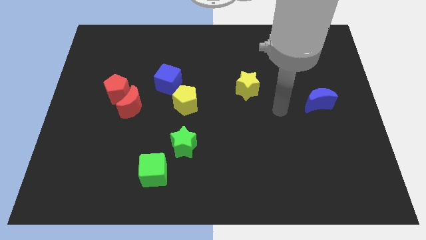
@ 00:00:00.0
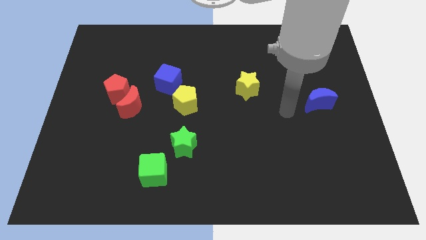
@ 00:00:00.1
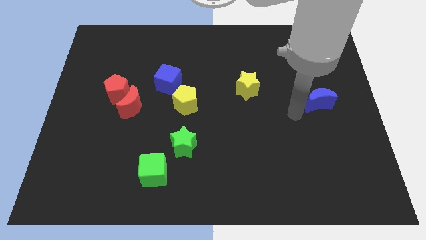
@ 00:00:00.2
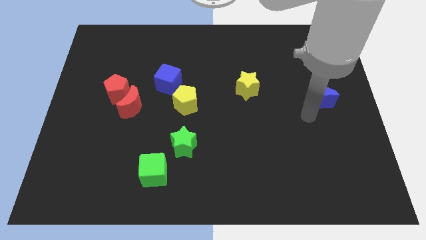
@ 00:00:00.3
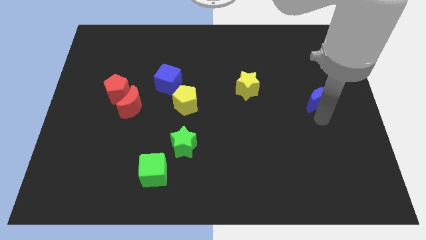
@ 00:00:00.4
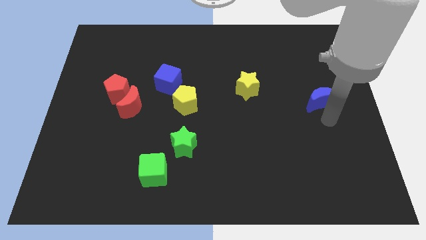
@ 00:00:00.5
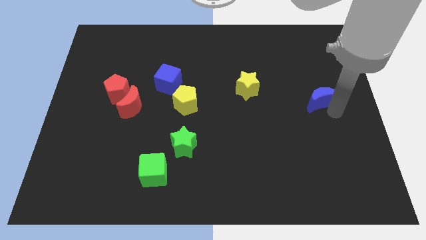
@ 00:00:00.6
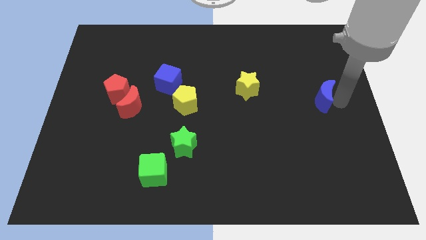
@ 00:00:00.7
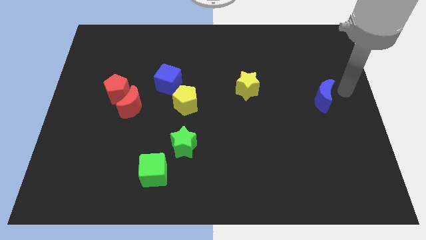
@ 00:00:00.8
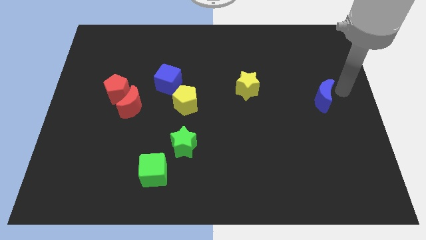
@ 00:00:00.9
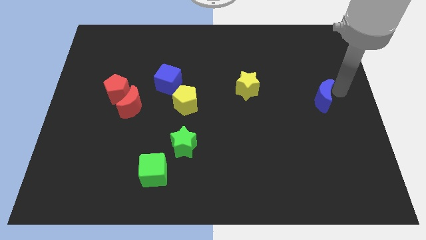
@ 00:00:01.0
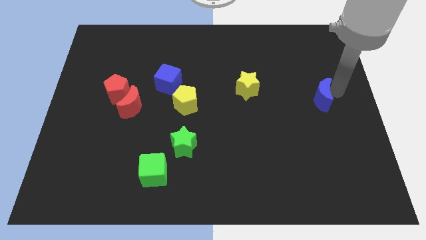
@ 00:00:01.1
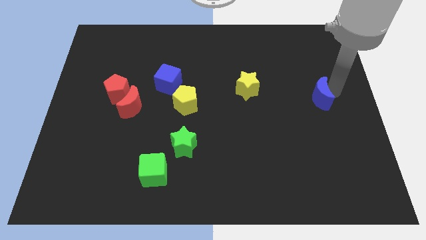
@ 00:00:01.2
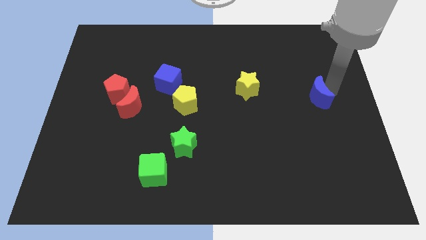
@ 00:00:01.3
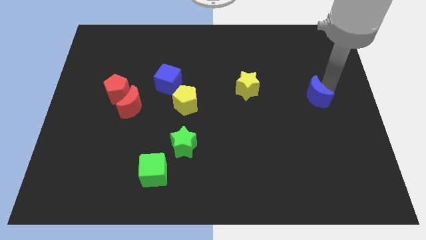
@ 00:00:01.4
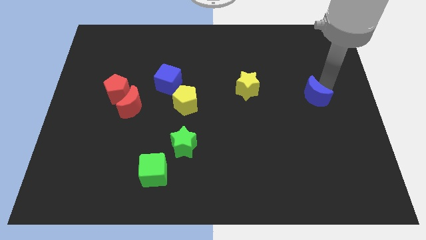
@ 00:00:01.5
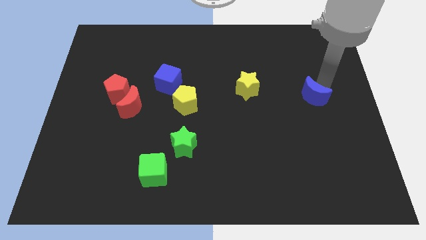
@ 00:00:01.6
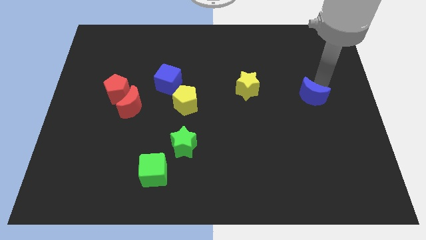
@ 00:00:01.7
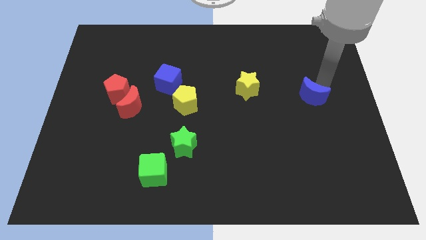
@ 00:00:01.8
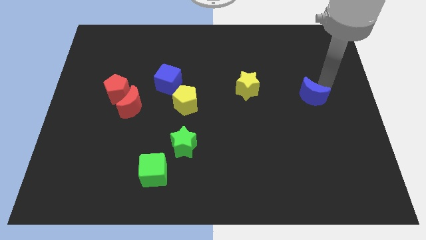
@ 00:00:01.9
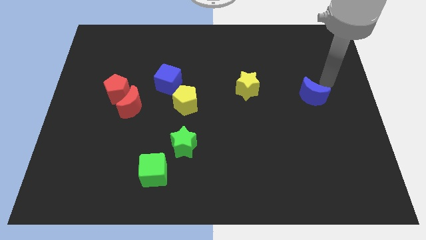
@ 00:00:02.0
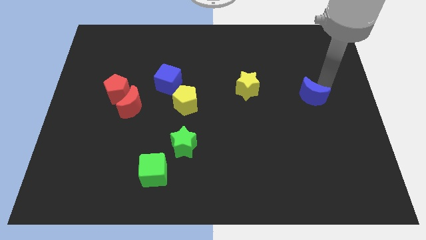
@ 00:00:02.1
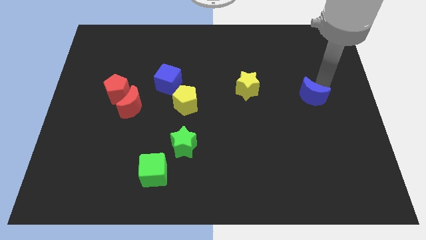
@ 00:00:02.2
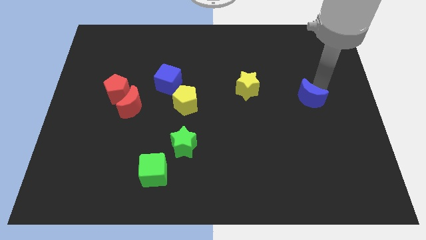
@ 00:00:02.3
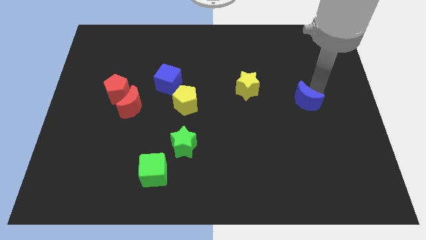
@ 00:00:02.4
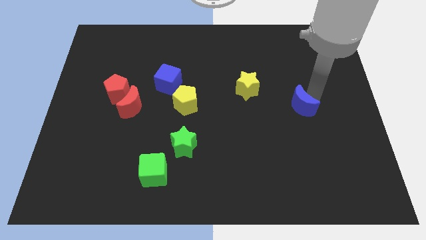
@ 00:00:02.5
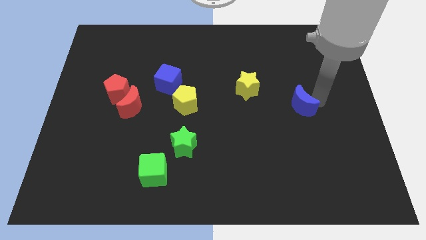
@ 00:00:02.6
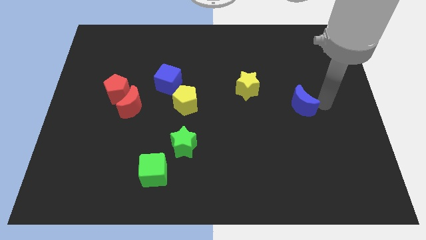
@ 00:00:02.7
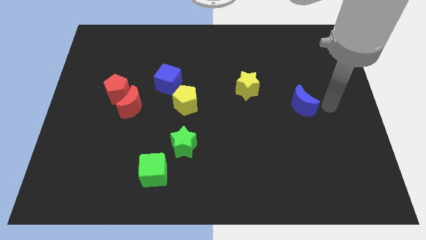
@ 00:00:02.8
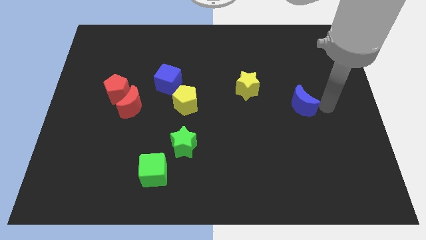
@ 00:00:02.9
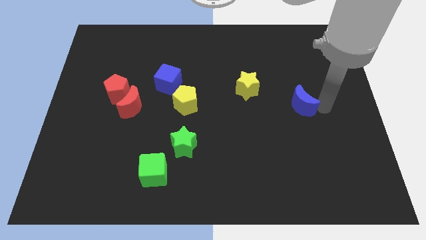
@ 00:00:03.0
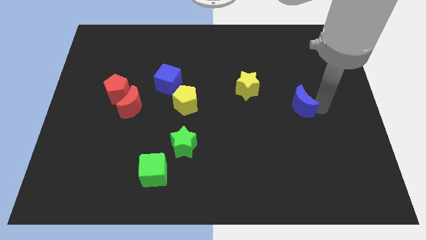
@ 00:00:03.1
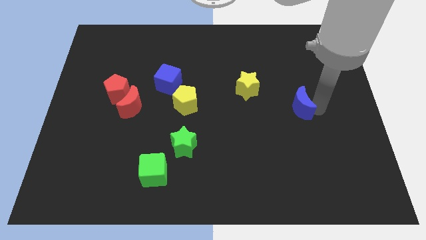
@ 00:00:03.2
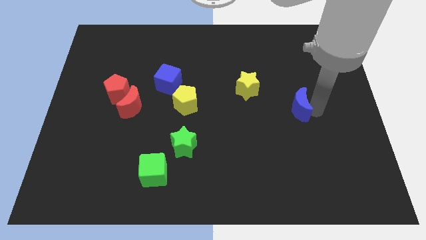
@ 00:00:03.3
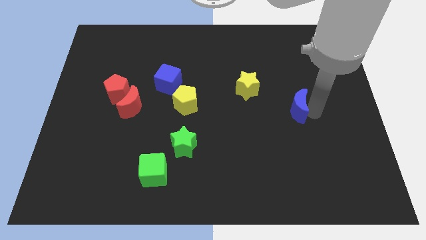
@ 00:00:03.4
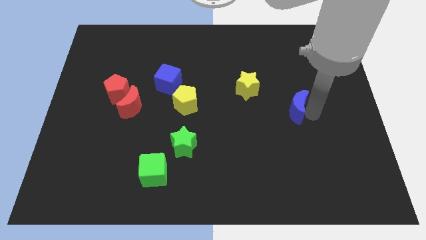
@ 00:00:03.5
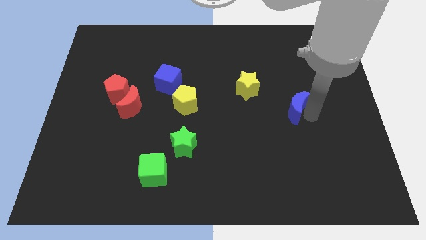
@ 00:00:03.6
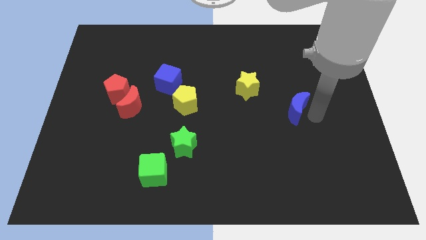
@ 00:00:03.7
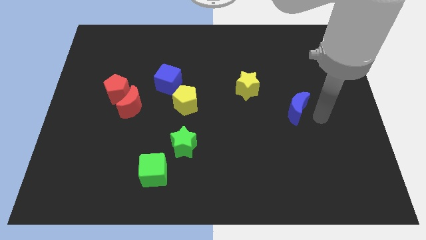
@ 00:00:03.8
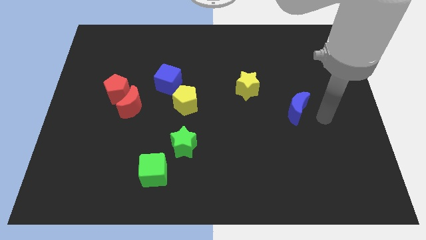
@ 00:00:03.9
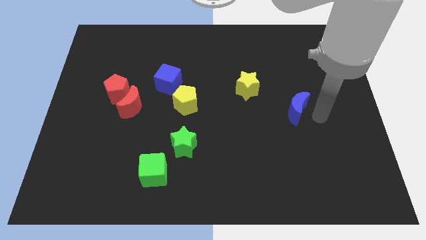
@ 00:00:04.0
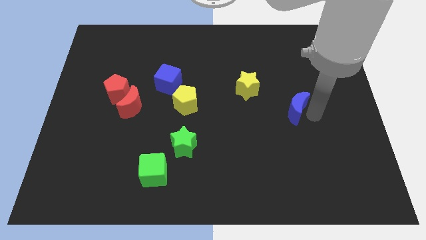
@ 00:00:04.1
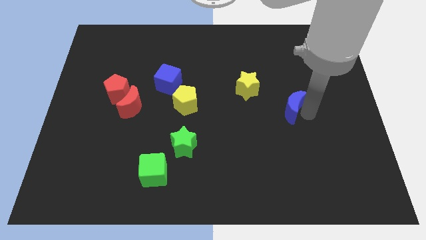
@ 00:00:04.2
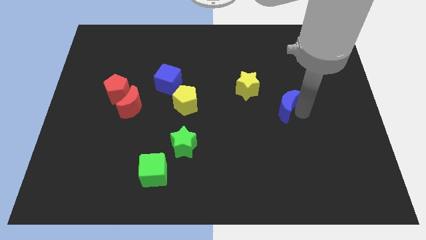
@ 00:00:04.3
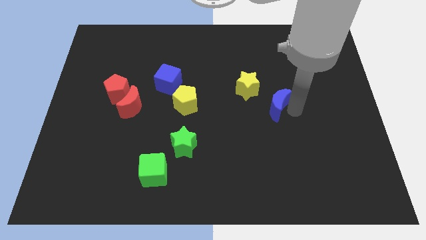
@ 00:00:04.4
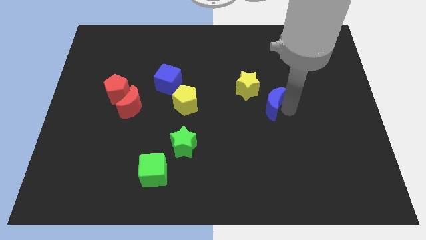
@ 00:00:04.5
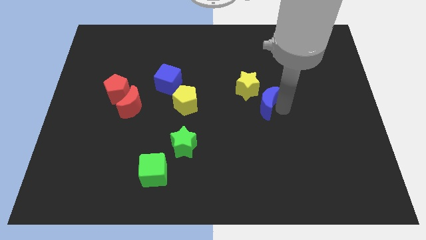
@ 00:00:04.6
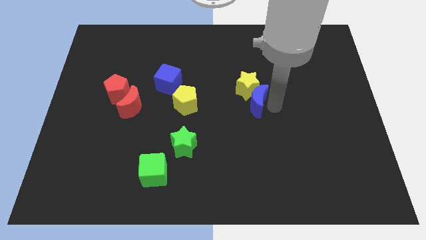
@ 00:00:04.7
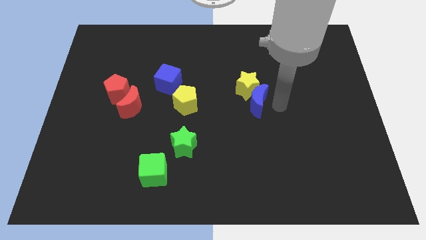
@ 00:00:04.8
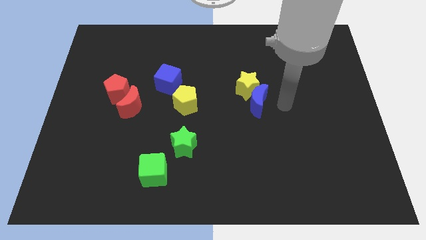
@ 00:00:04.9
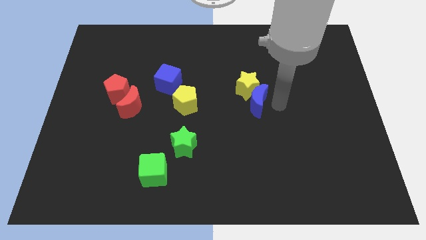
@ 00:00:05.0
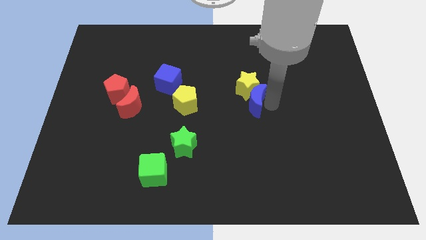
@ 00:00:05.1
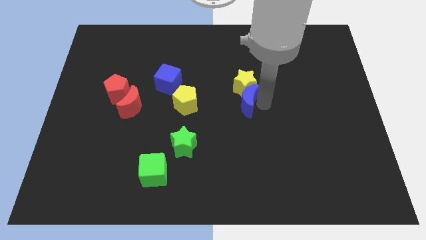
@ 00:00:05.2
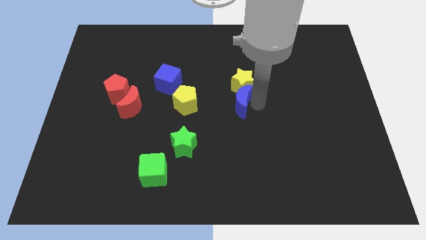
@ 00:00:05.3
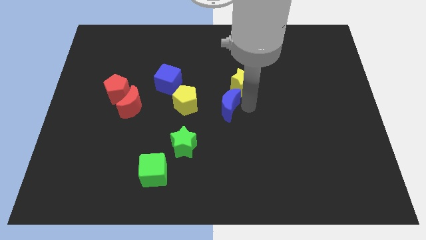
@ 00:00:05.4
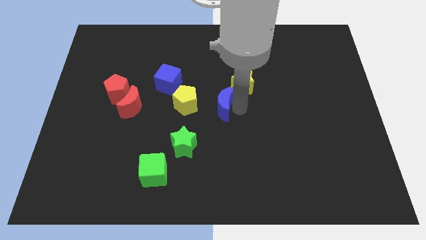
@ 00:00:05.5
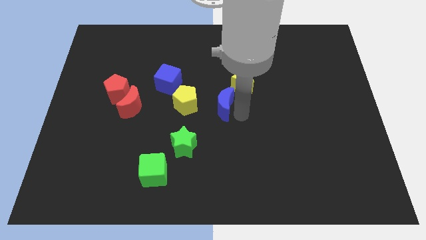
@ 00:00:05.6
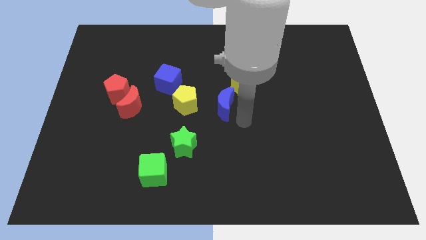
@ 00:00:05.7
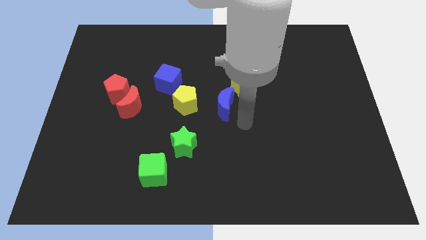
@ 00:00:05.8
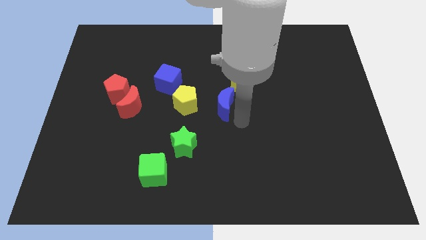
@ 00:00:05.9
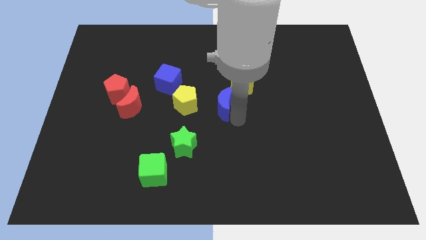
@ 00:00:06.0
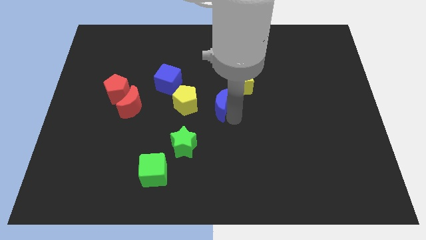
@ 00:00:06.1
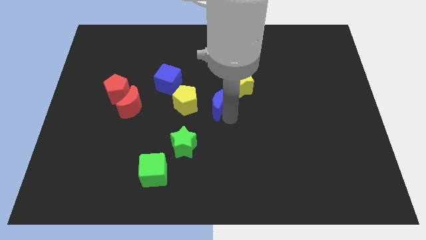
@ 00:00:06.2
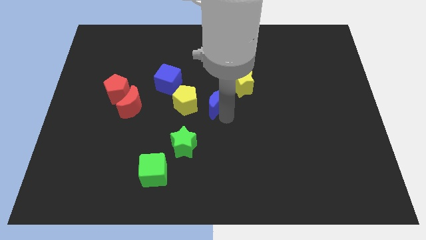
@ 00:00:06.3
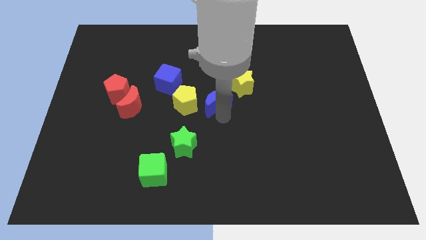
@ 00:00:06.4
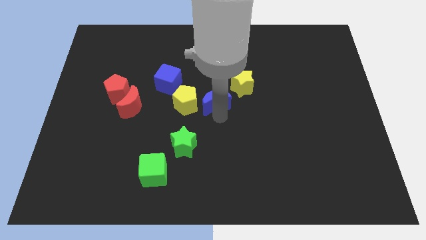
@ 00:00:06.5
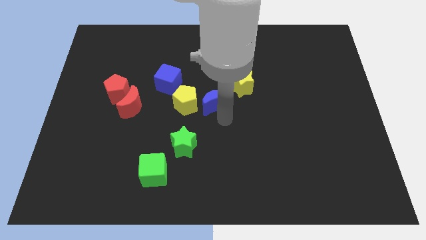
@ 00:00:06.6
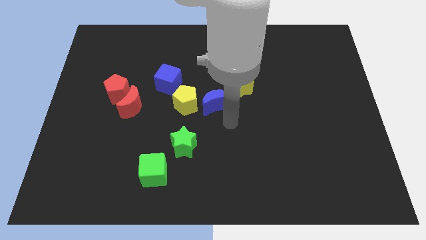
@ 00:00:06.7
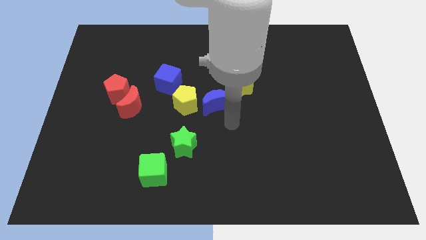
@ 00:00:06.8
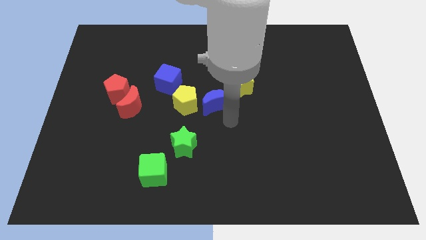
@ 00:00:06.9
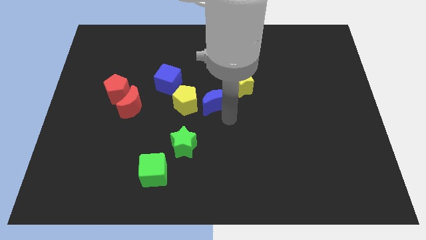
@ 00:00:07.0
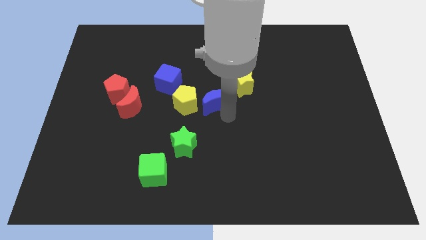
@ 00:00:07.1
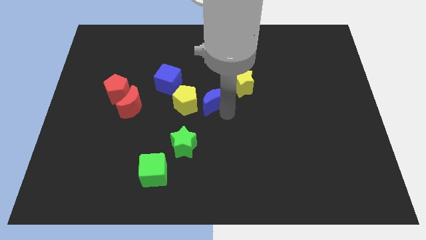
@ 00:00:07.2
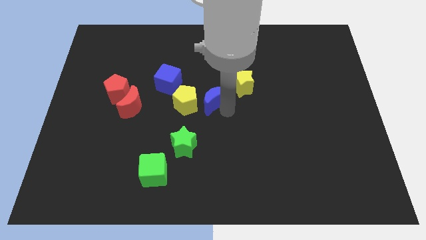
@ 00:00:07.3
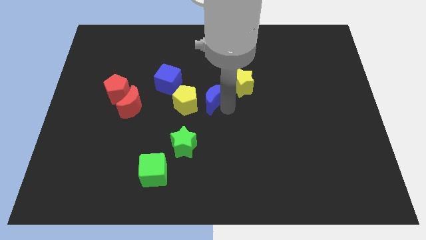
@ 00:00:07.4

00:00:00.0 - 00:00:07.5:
push the blue moon to the left side of the yellow star
